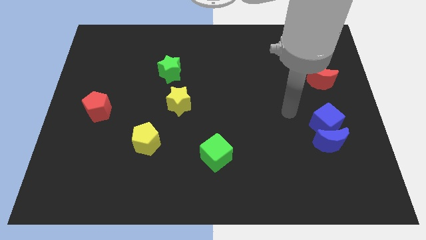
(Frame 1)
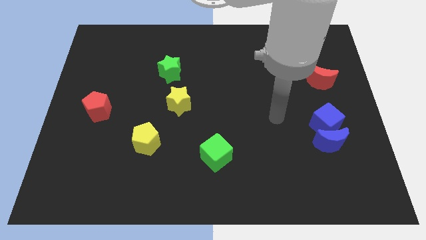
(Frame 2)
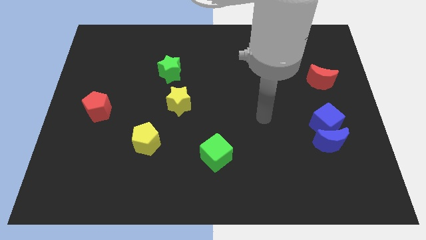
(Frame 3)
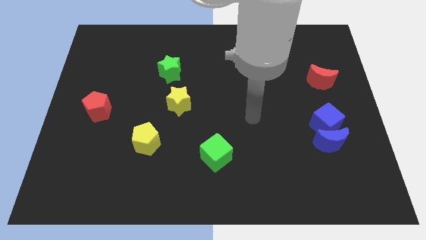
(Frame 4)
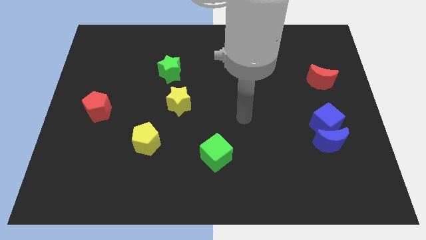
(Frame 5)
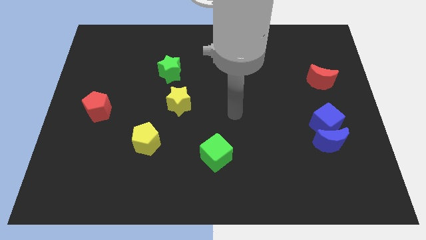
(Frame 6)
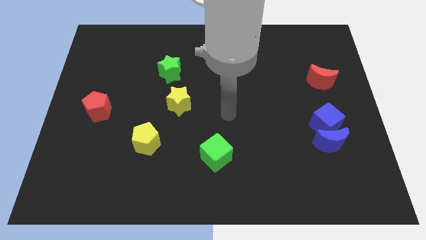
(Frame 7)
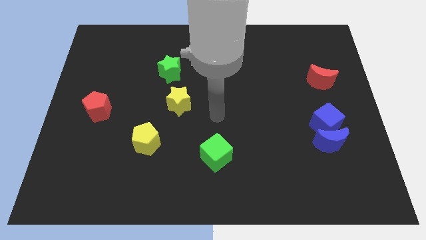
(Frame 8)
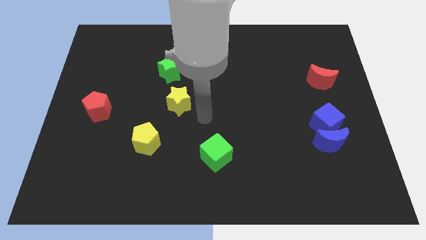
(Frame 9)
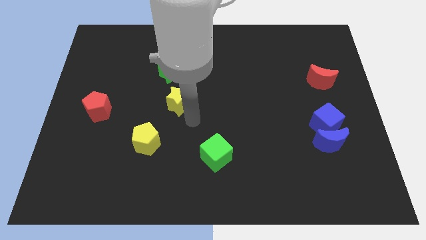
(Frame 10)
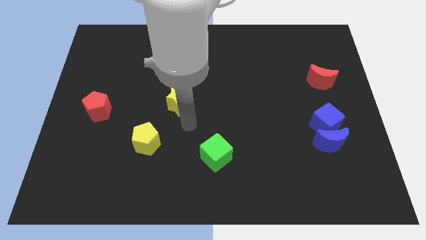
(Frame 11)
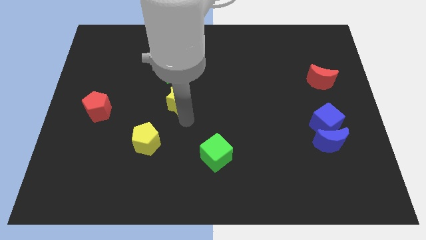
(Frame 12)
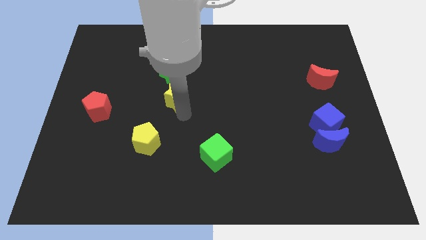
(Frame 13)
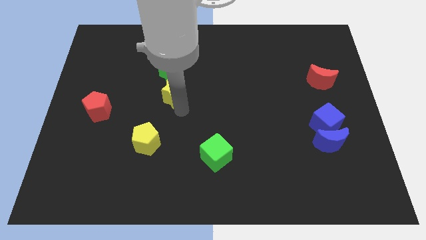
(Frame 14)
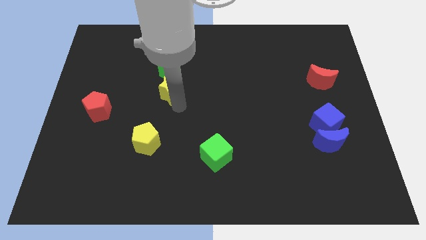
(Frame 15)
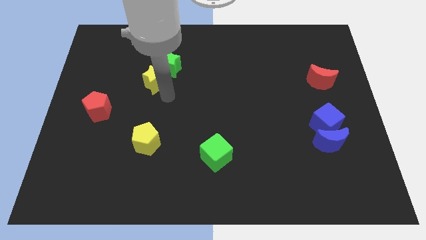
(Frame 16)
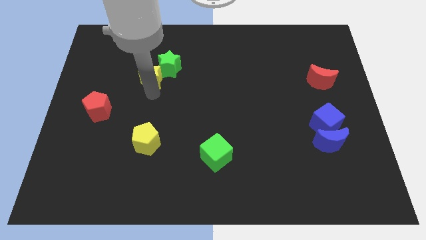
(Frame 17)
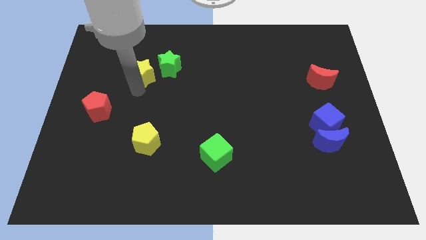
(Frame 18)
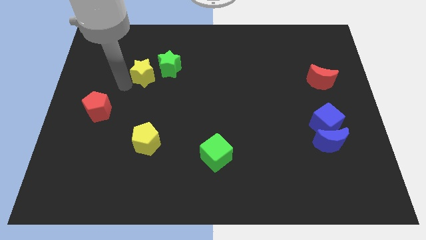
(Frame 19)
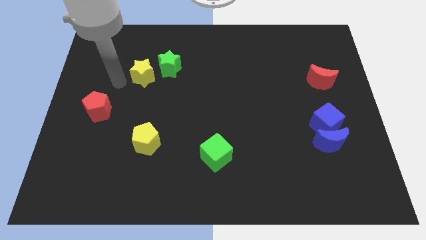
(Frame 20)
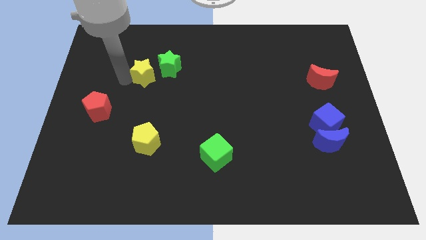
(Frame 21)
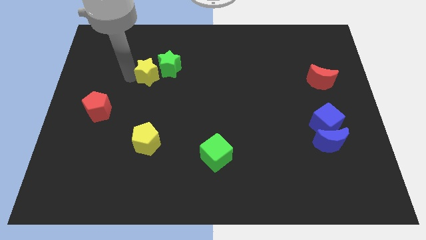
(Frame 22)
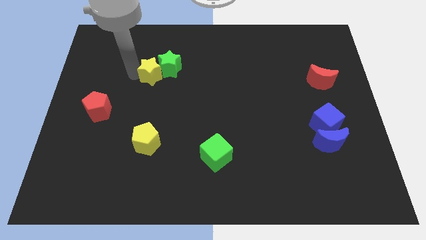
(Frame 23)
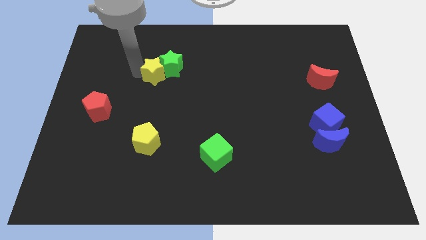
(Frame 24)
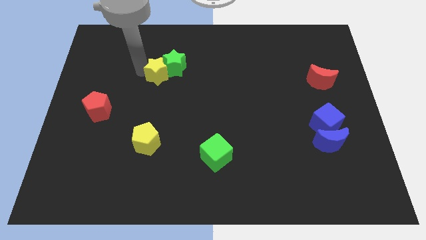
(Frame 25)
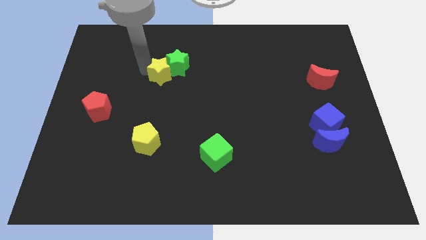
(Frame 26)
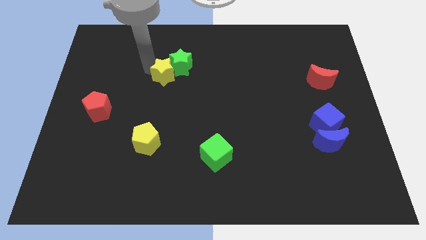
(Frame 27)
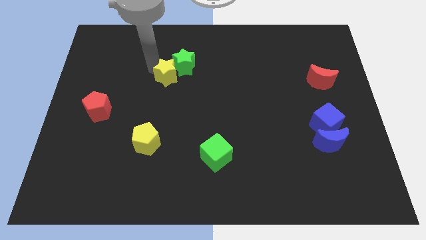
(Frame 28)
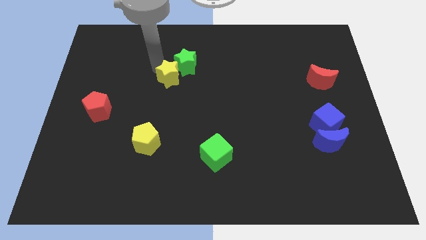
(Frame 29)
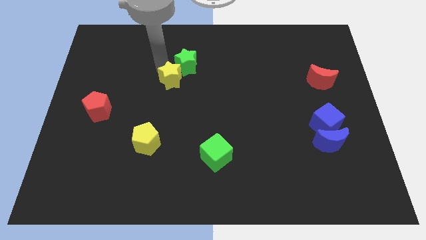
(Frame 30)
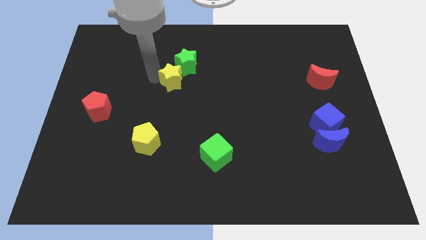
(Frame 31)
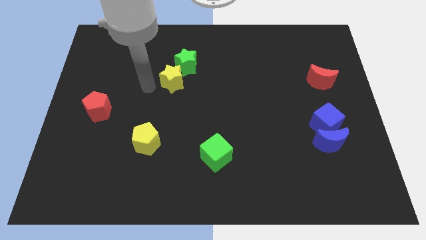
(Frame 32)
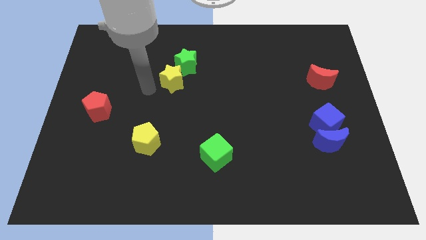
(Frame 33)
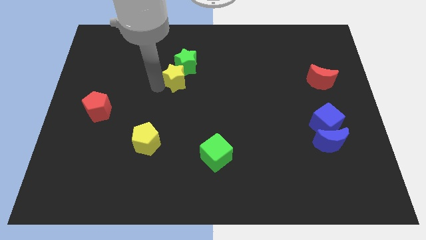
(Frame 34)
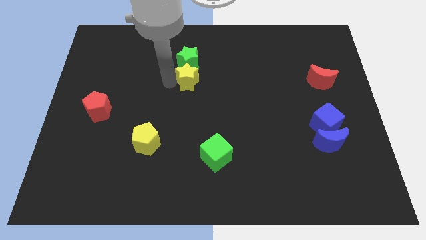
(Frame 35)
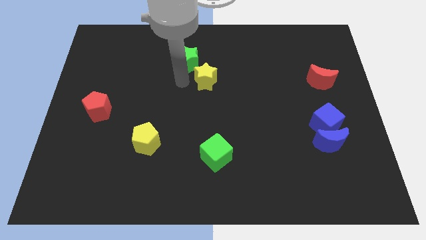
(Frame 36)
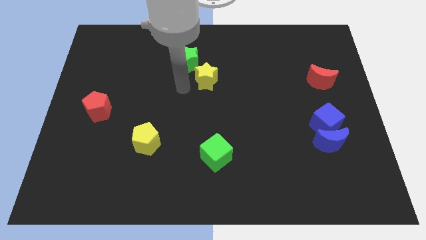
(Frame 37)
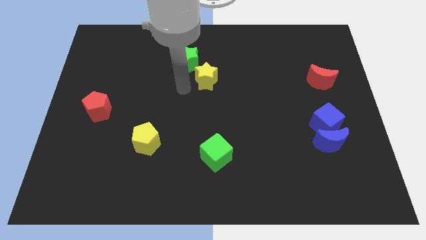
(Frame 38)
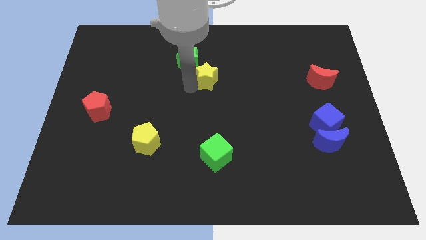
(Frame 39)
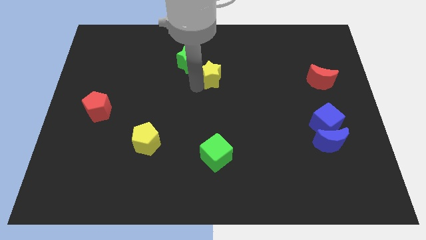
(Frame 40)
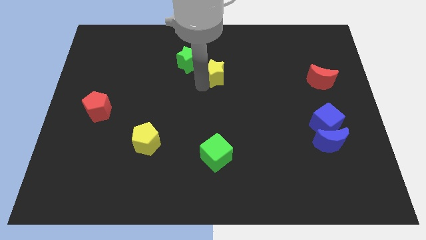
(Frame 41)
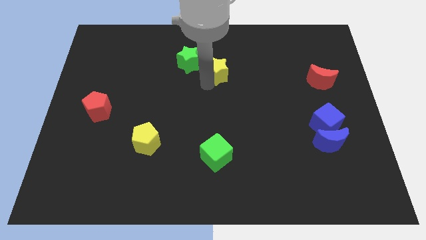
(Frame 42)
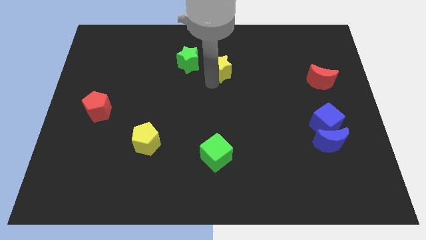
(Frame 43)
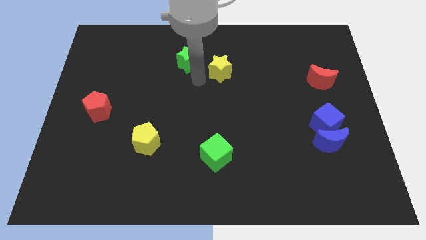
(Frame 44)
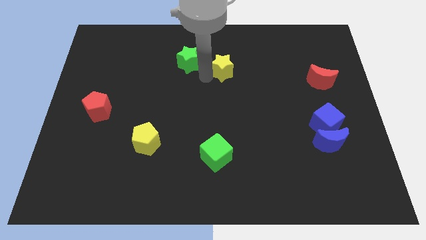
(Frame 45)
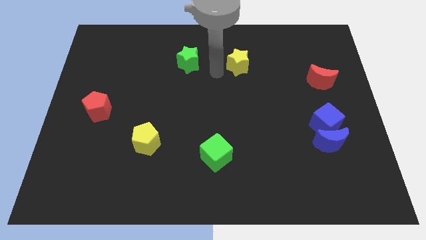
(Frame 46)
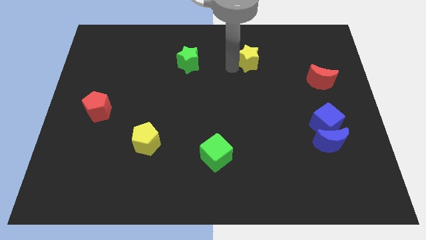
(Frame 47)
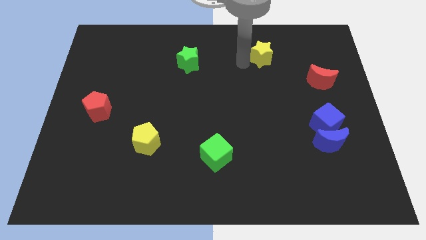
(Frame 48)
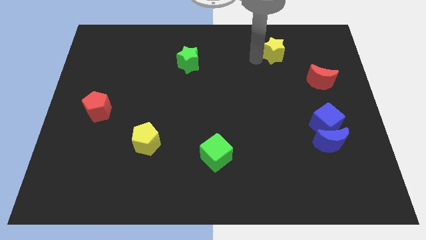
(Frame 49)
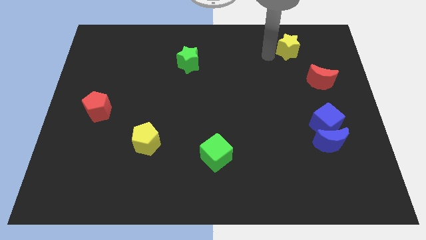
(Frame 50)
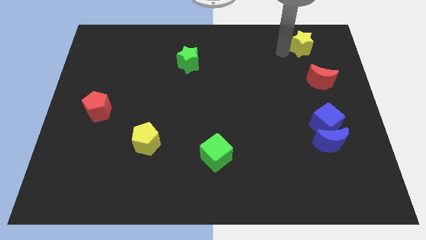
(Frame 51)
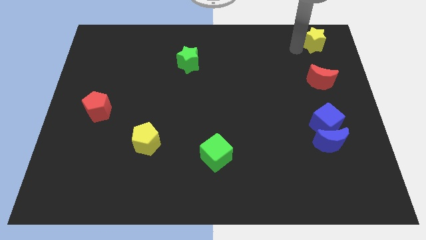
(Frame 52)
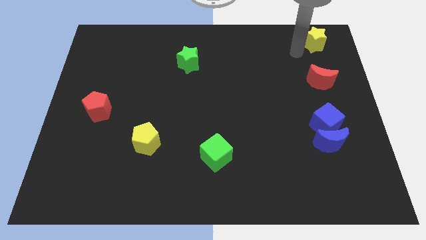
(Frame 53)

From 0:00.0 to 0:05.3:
push the yellow star to the top right
